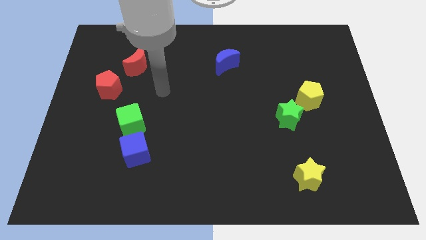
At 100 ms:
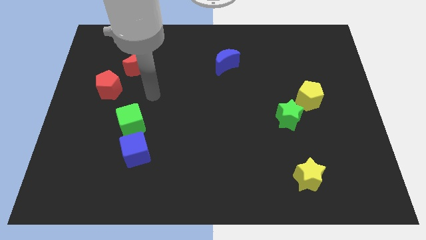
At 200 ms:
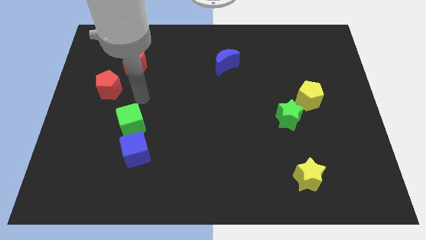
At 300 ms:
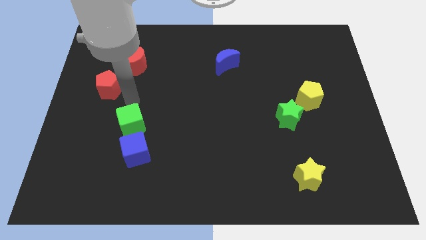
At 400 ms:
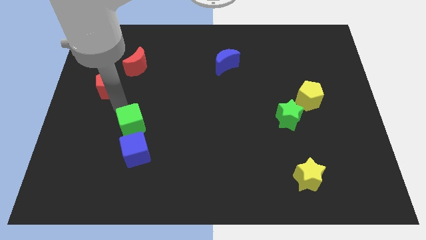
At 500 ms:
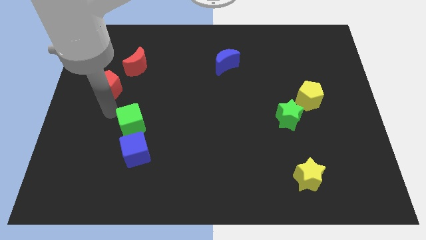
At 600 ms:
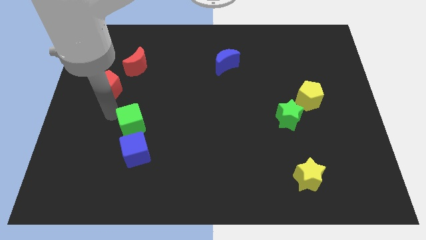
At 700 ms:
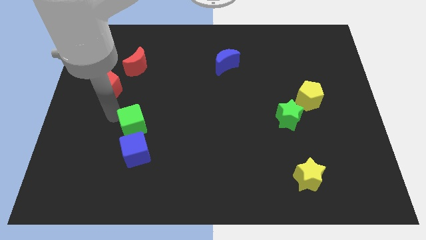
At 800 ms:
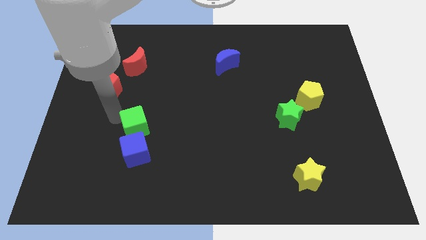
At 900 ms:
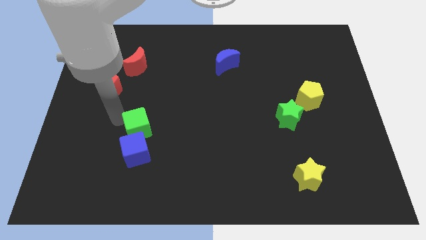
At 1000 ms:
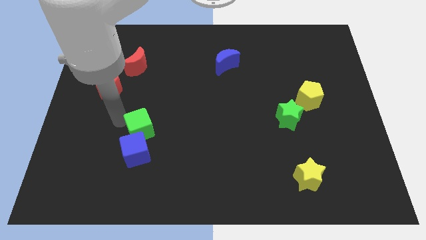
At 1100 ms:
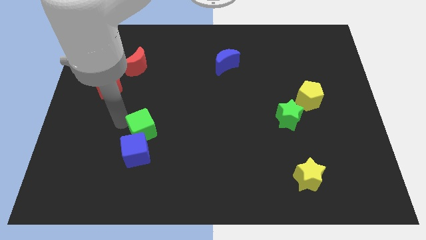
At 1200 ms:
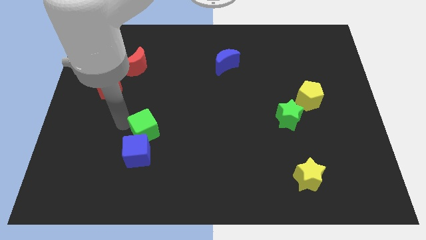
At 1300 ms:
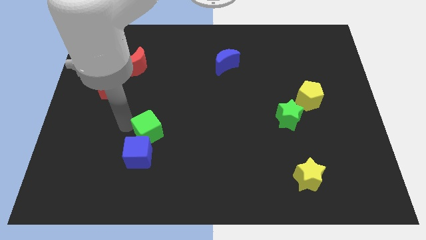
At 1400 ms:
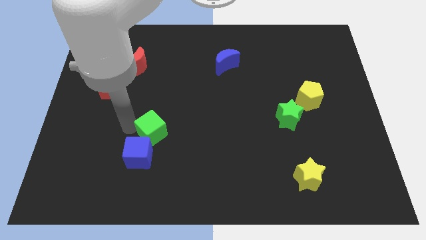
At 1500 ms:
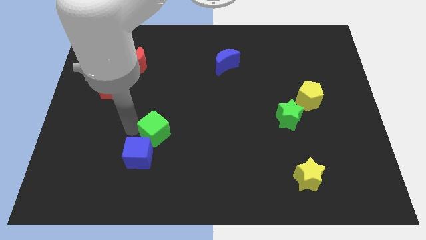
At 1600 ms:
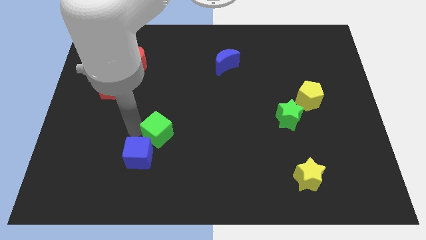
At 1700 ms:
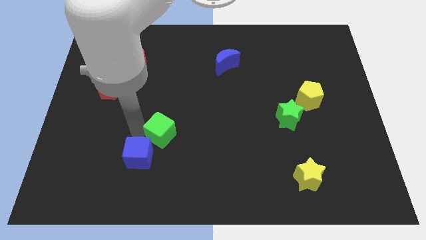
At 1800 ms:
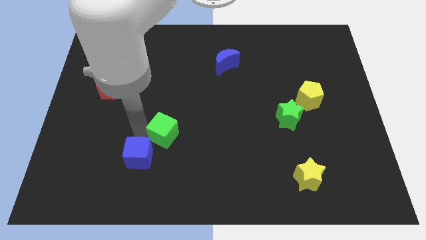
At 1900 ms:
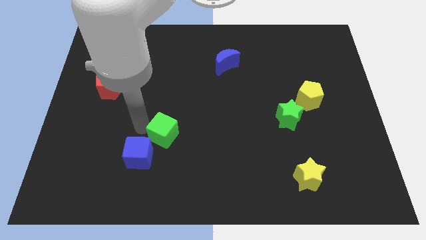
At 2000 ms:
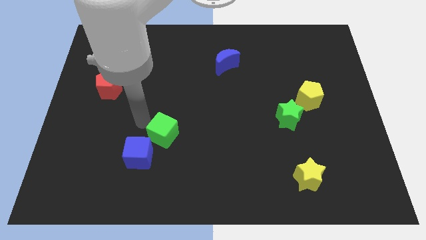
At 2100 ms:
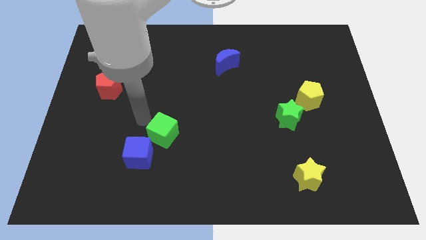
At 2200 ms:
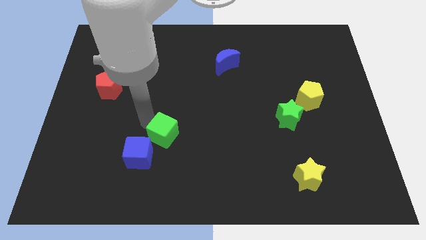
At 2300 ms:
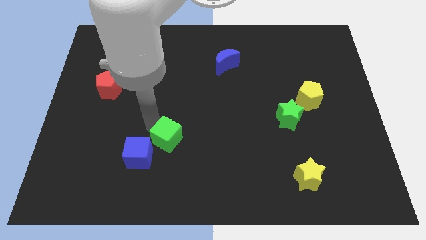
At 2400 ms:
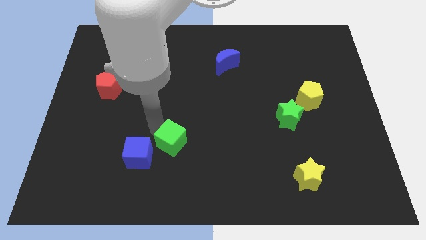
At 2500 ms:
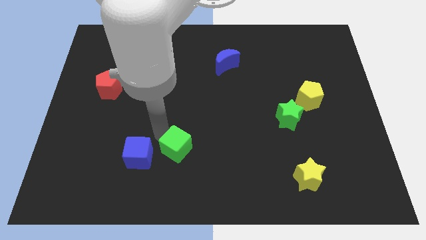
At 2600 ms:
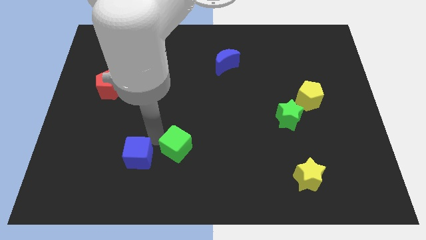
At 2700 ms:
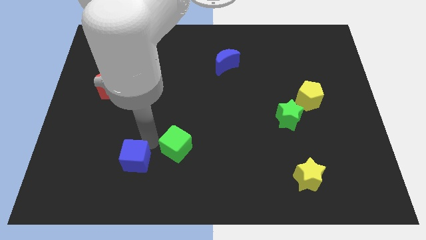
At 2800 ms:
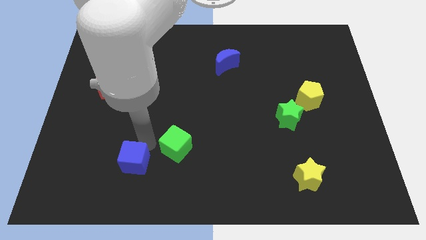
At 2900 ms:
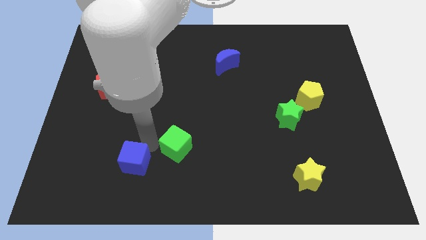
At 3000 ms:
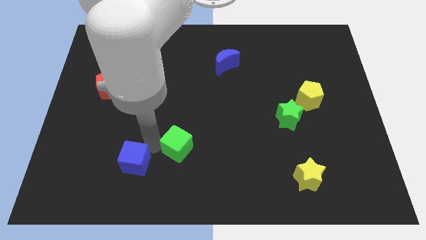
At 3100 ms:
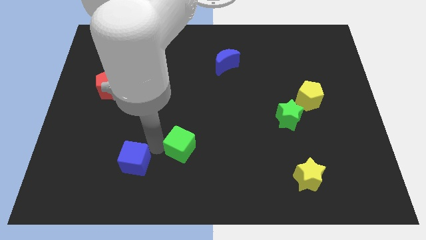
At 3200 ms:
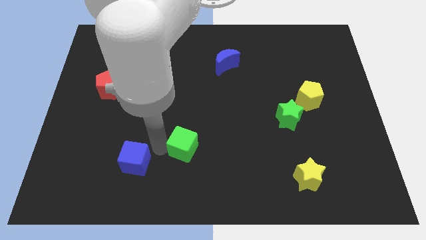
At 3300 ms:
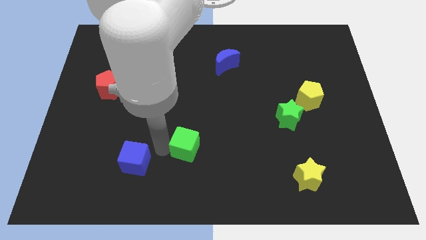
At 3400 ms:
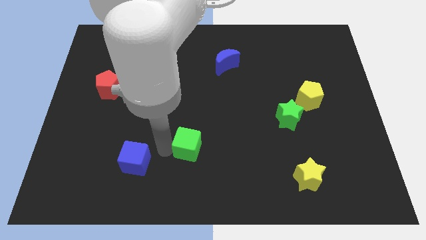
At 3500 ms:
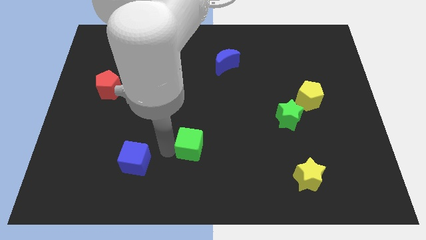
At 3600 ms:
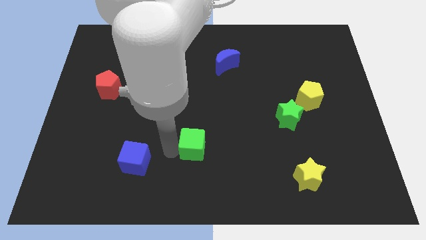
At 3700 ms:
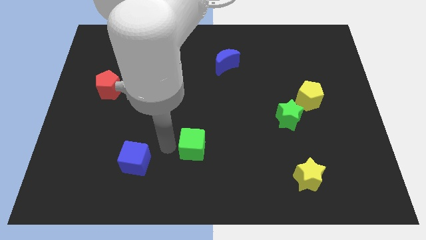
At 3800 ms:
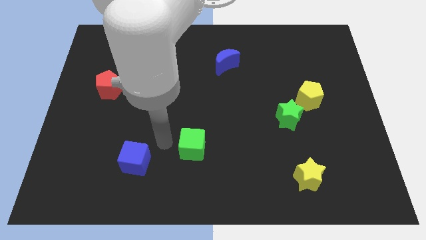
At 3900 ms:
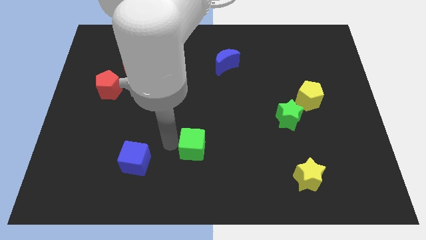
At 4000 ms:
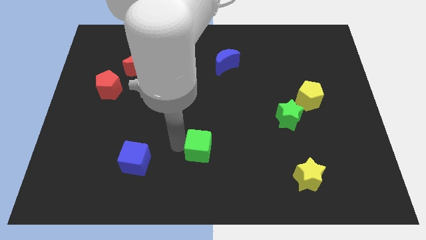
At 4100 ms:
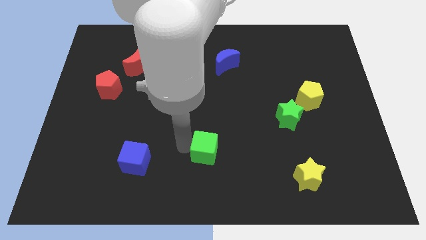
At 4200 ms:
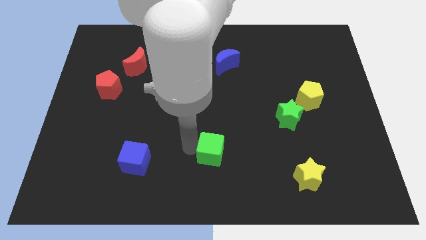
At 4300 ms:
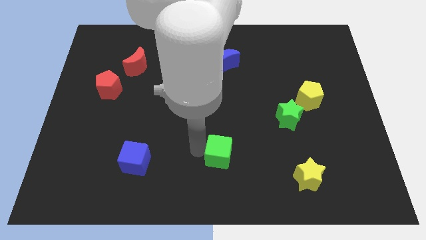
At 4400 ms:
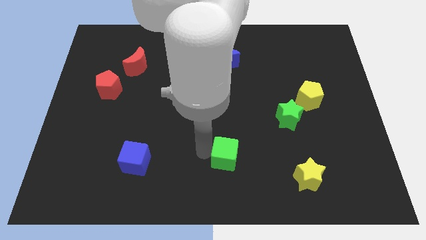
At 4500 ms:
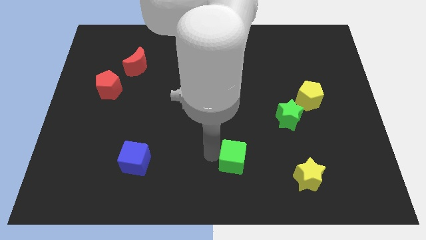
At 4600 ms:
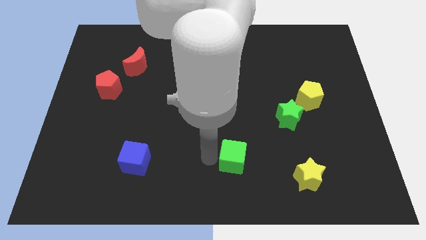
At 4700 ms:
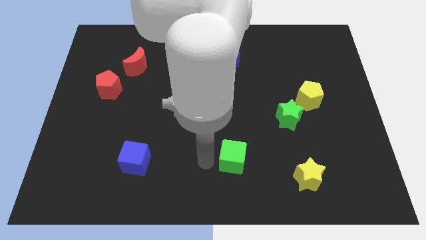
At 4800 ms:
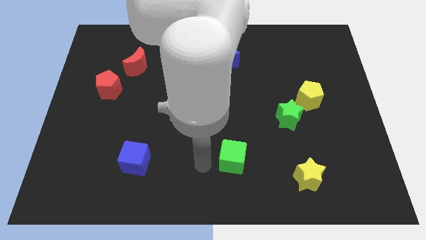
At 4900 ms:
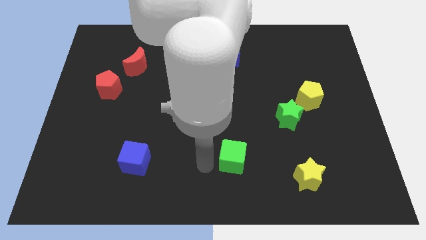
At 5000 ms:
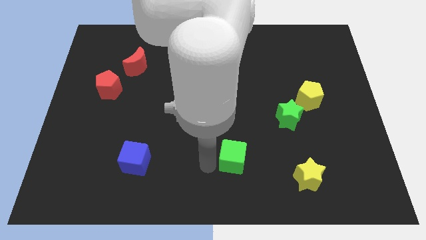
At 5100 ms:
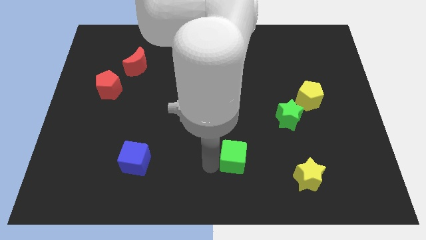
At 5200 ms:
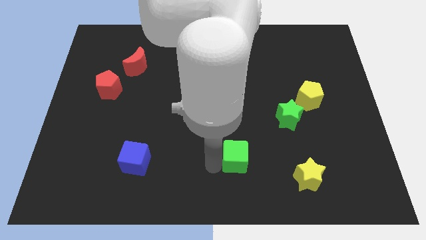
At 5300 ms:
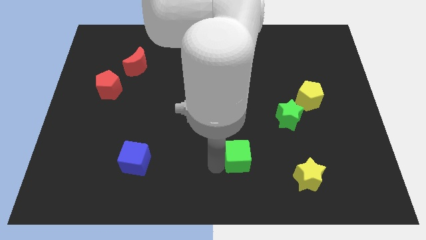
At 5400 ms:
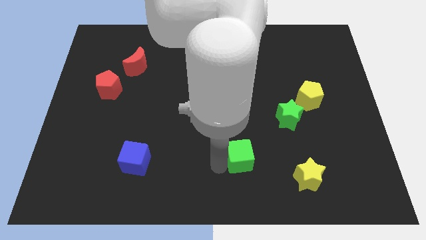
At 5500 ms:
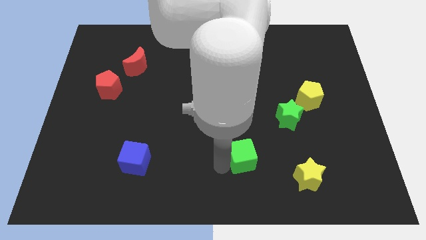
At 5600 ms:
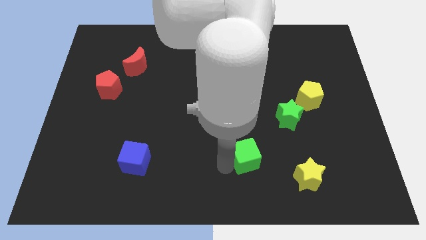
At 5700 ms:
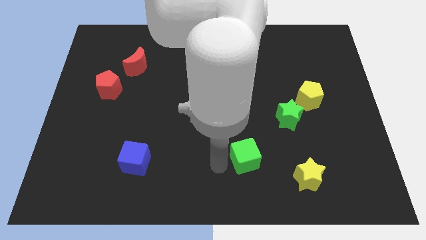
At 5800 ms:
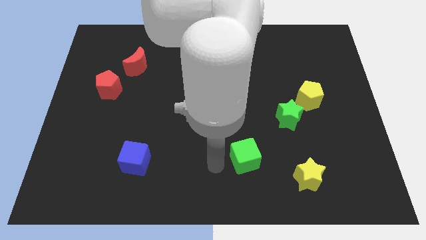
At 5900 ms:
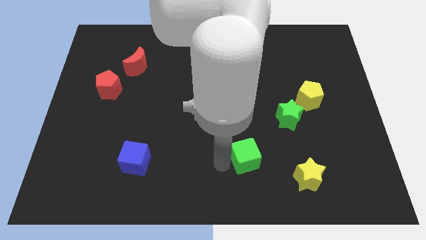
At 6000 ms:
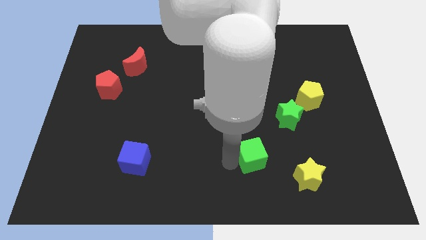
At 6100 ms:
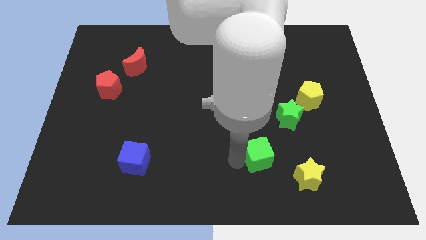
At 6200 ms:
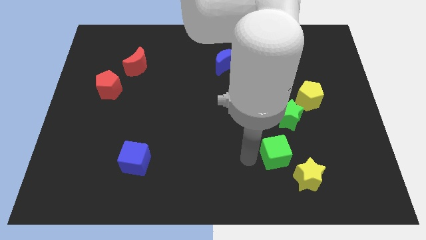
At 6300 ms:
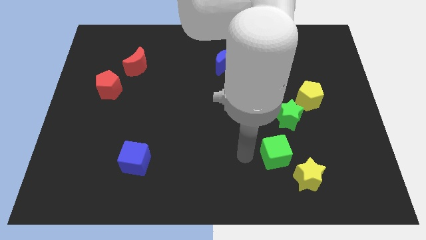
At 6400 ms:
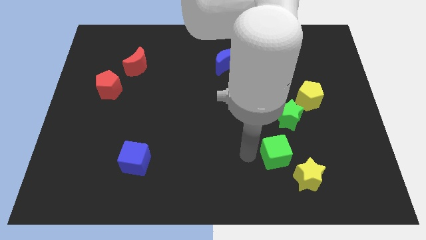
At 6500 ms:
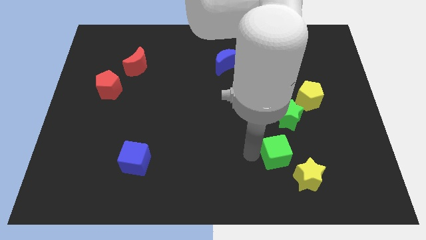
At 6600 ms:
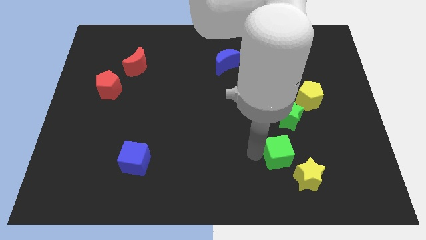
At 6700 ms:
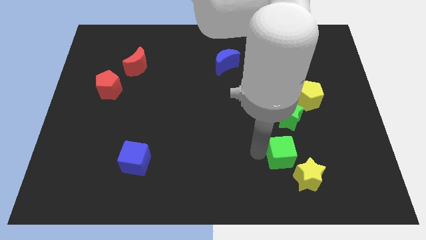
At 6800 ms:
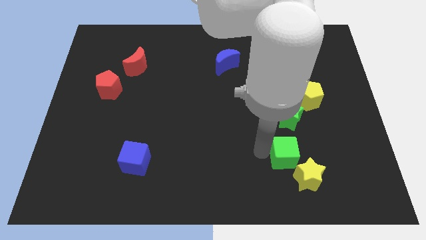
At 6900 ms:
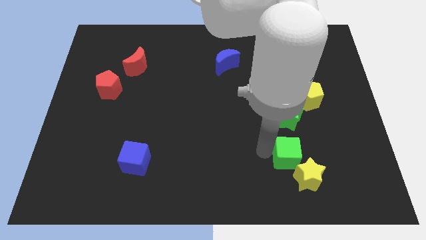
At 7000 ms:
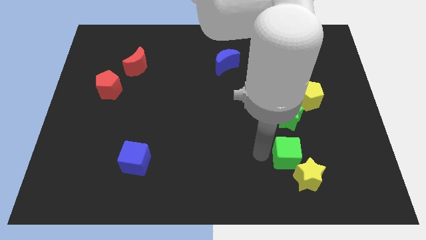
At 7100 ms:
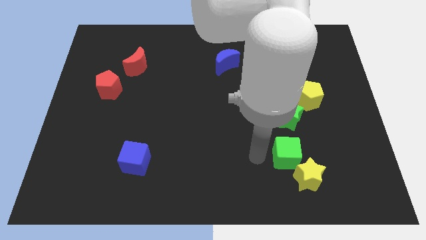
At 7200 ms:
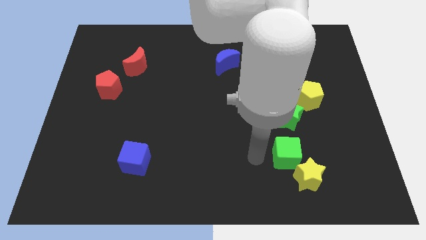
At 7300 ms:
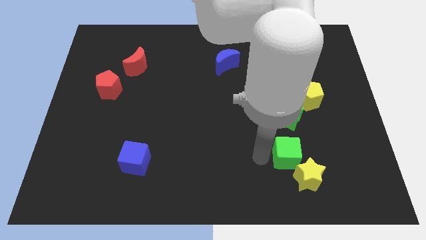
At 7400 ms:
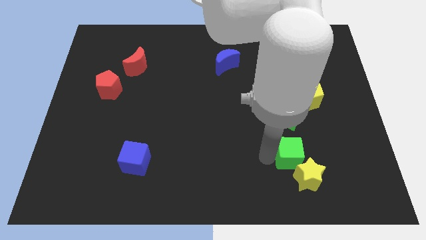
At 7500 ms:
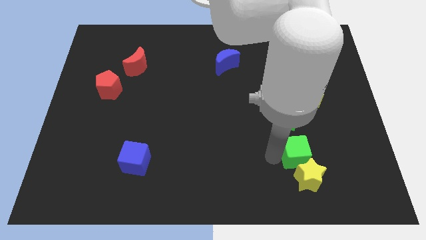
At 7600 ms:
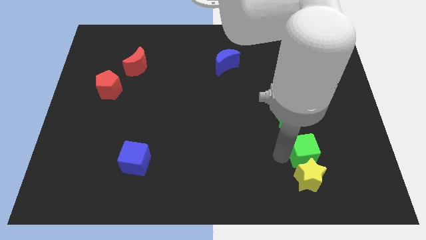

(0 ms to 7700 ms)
push the green cube to the top right side of the yellow star
